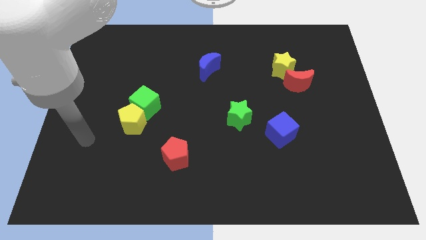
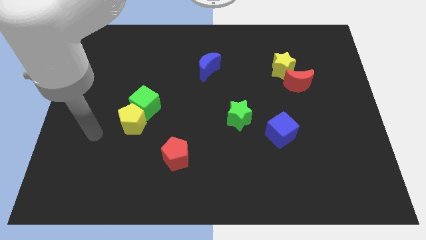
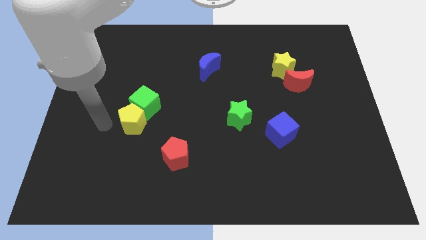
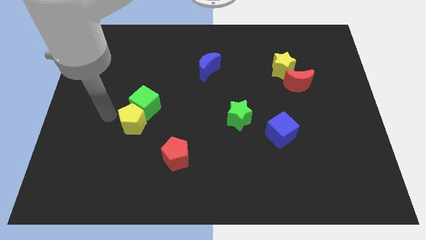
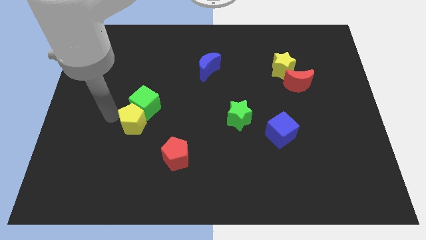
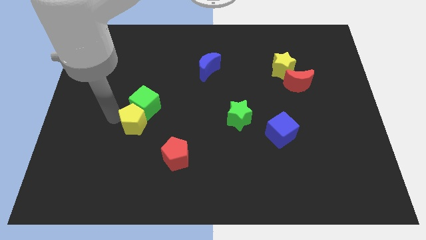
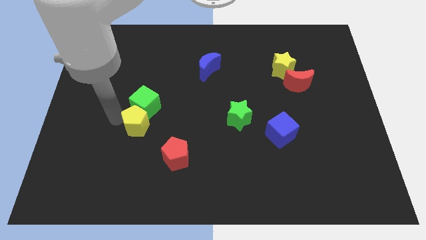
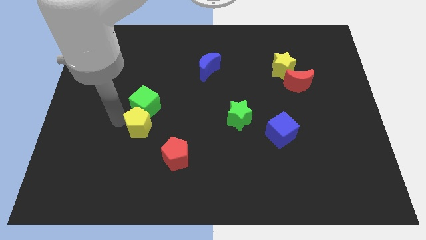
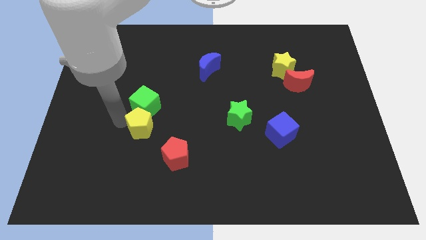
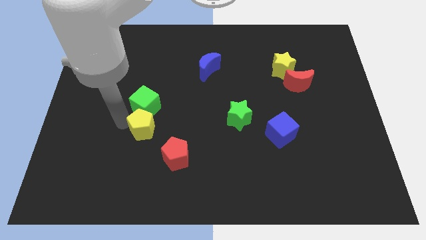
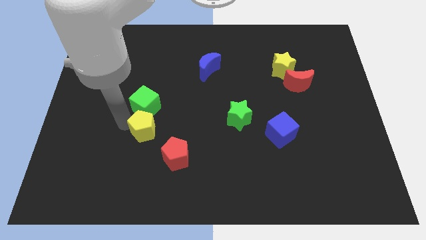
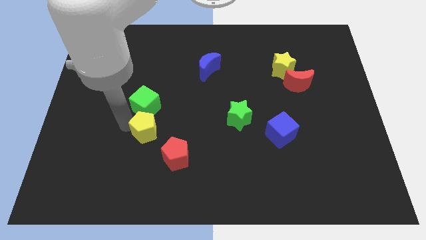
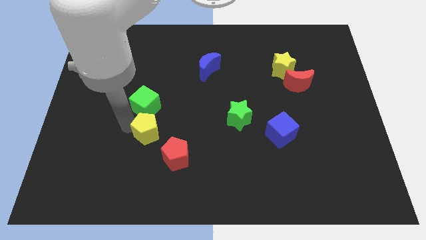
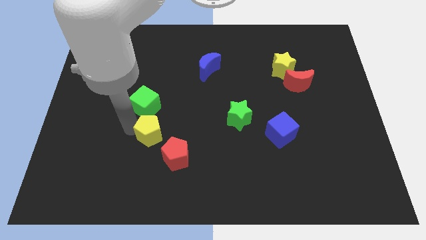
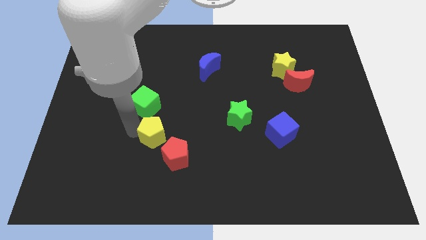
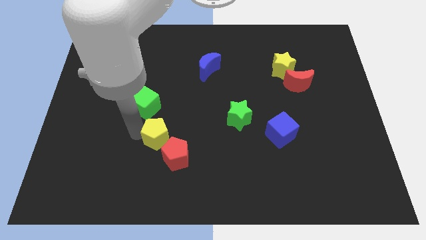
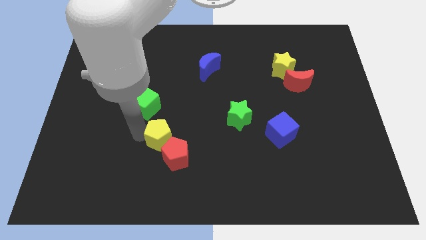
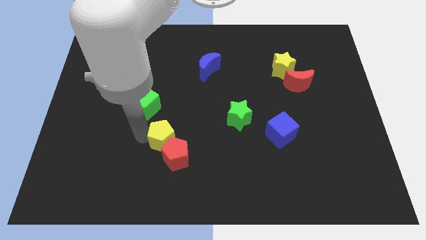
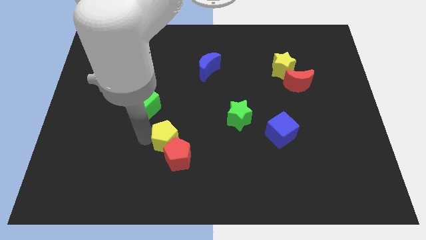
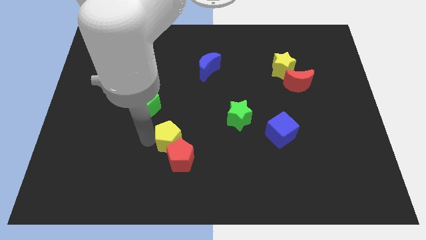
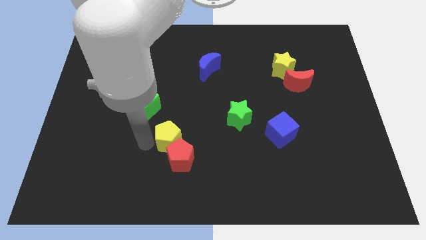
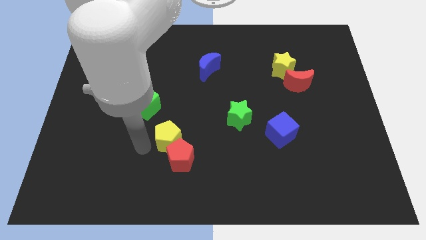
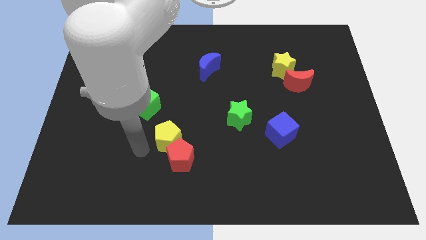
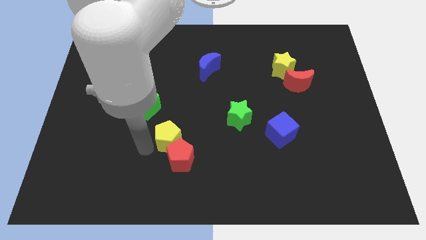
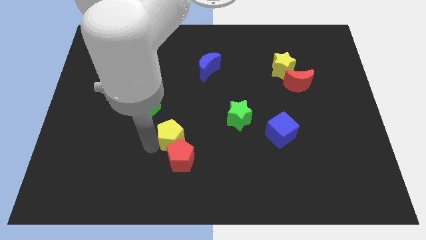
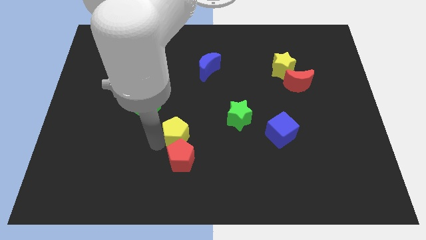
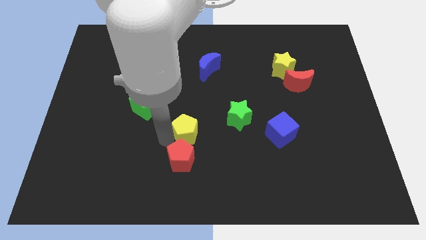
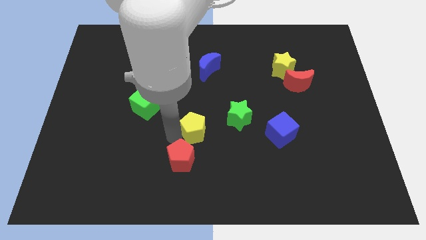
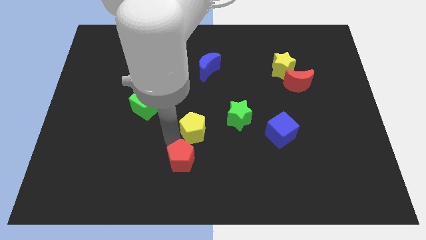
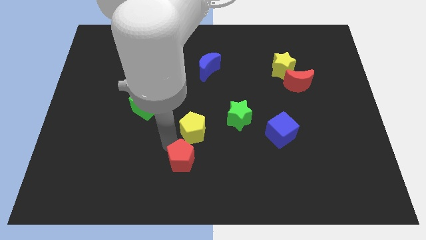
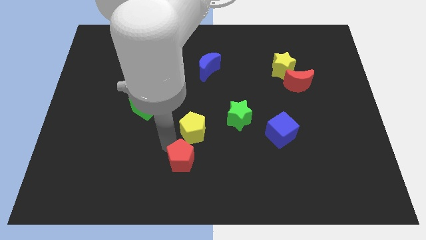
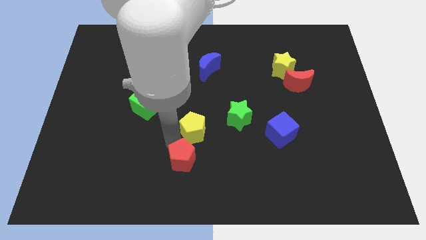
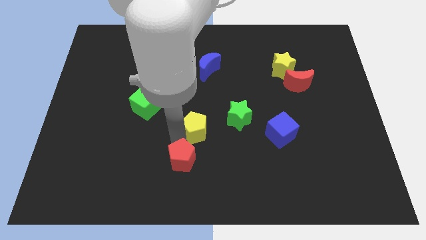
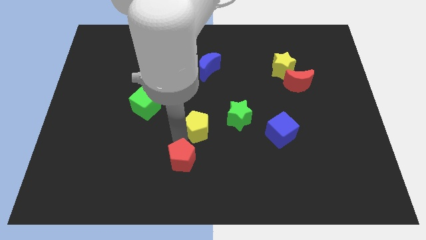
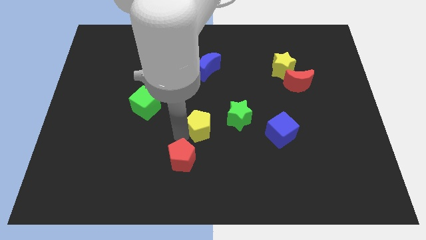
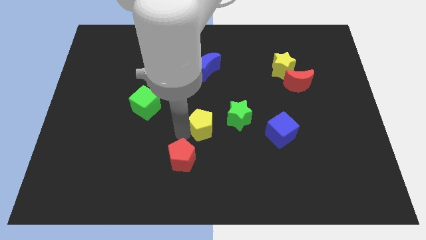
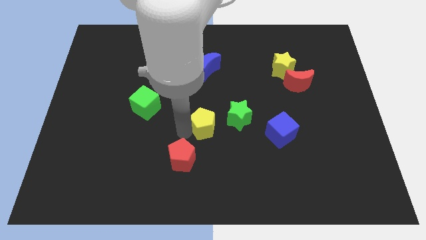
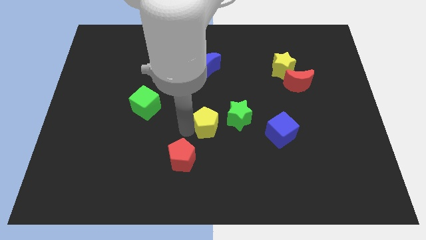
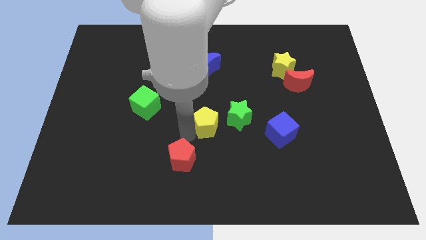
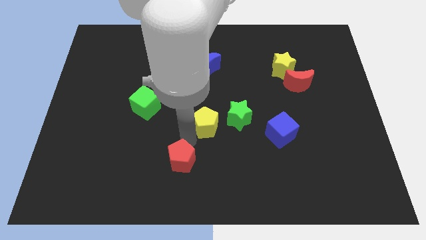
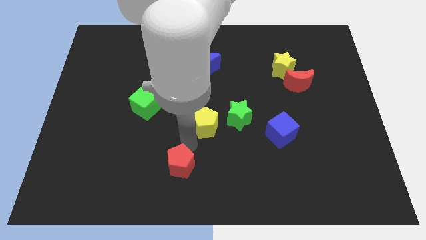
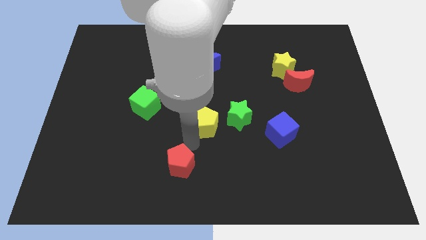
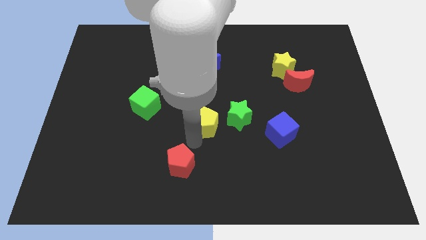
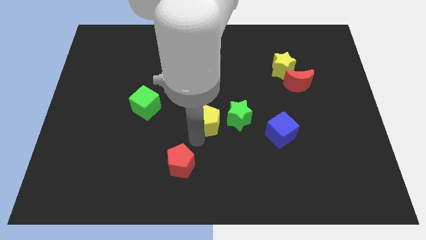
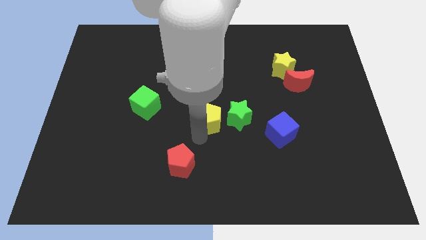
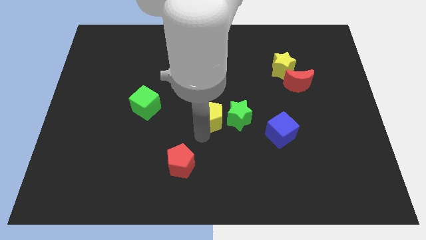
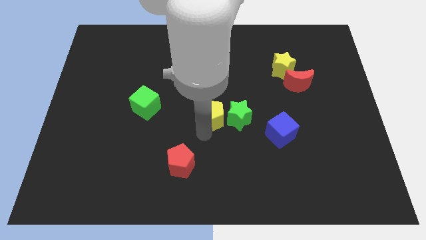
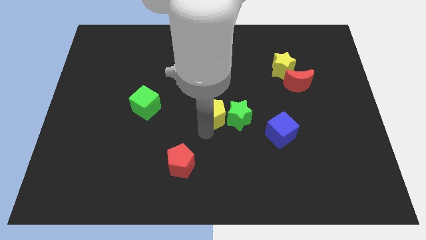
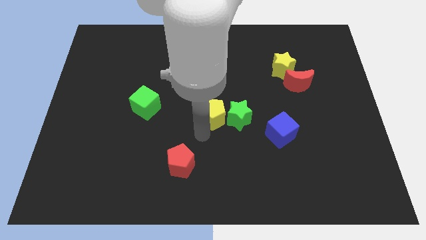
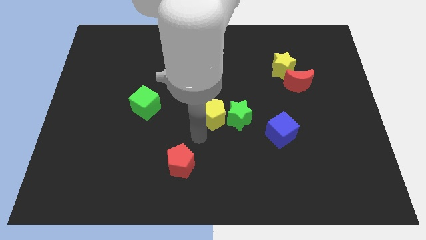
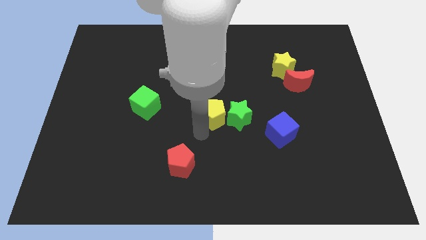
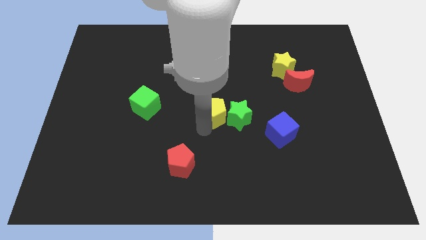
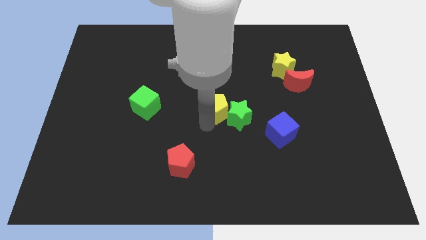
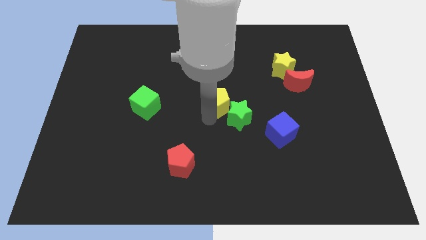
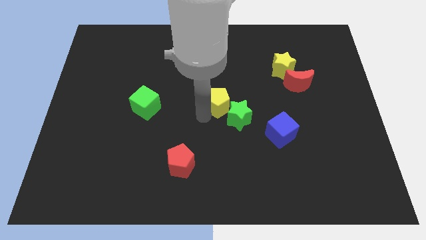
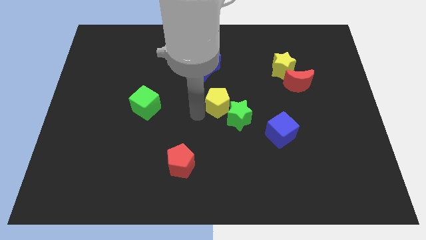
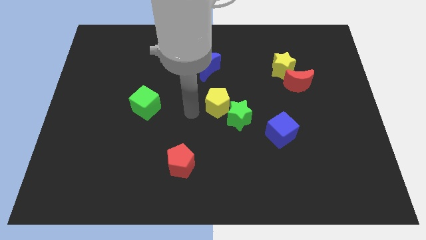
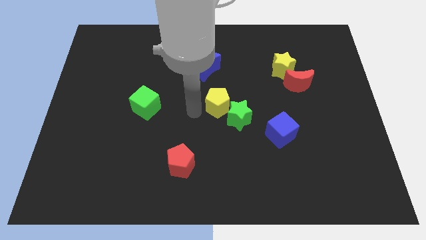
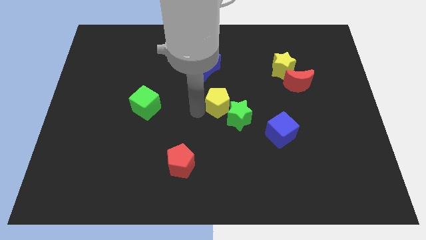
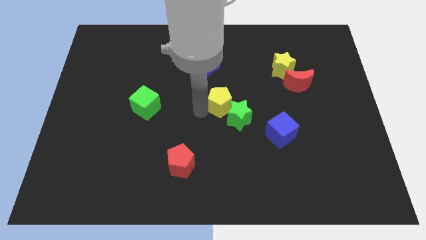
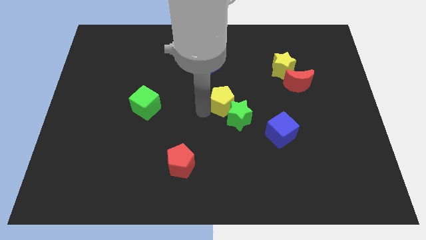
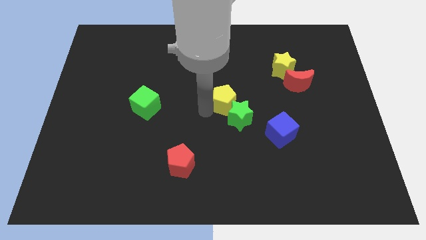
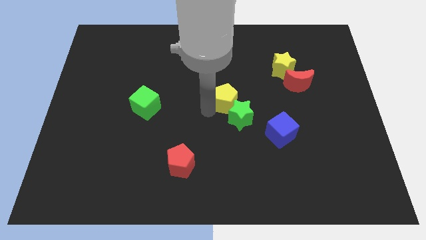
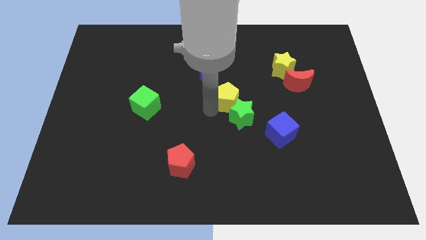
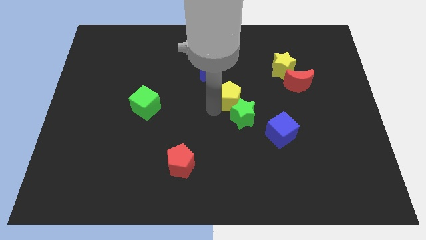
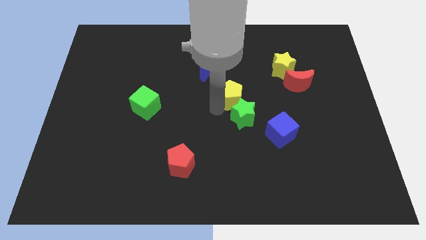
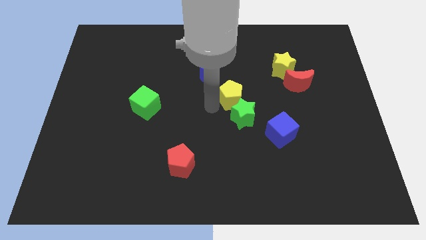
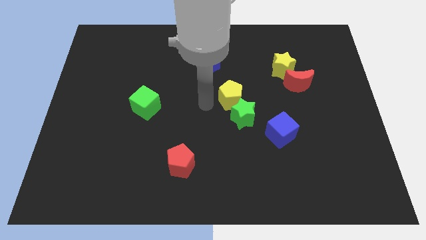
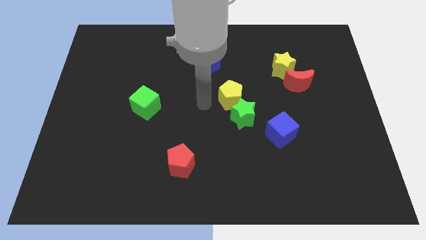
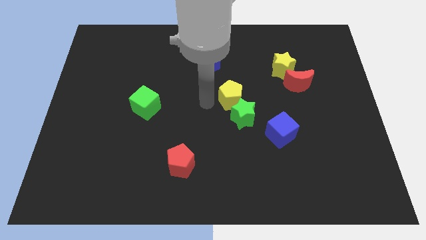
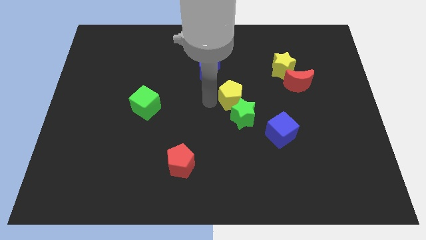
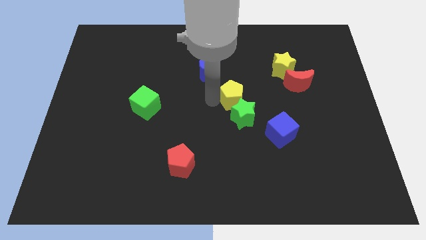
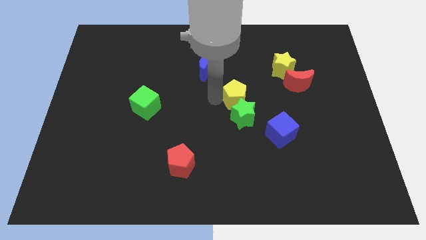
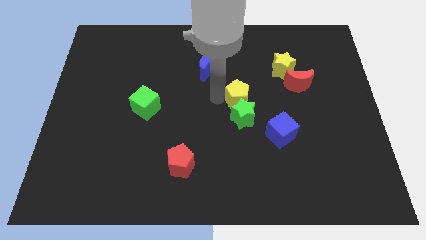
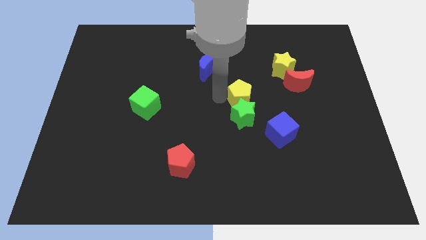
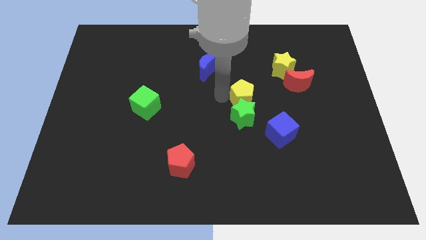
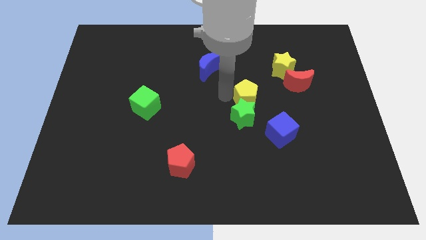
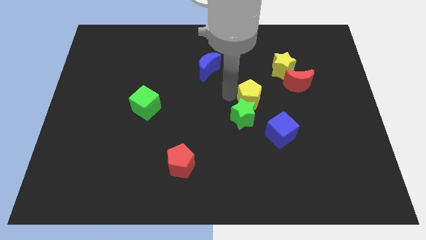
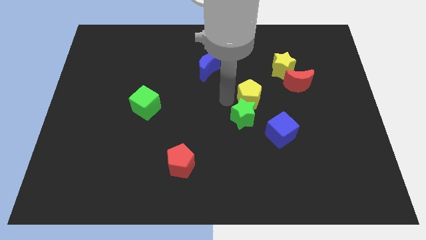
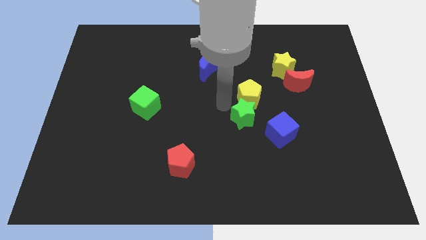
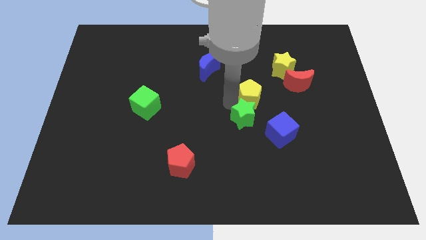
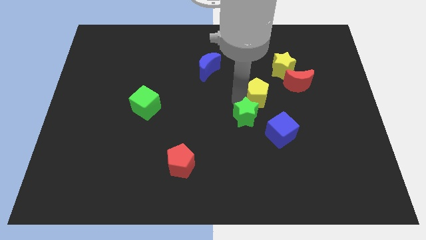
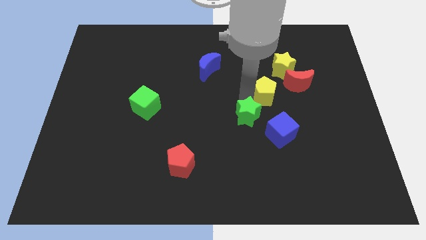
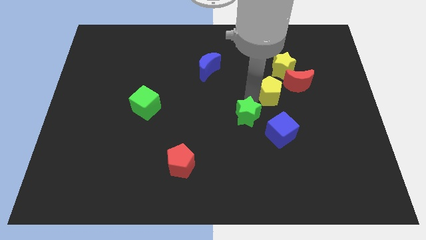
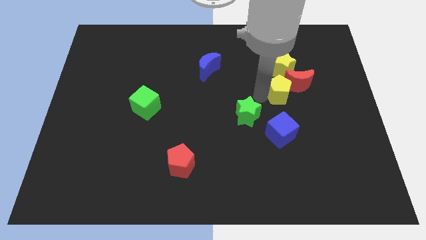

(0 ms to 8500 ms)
put the yellow pentagon close to the red moon
